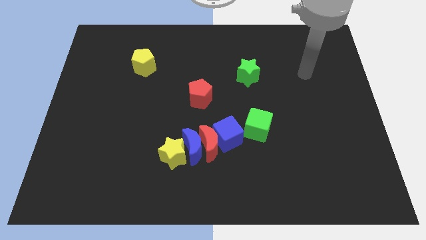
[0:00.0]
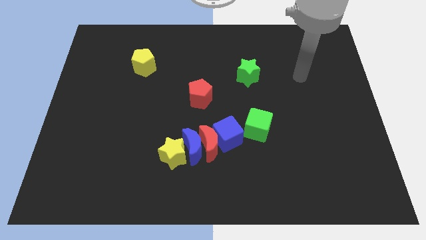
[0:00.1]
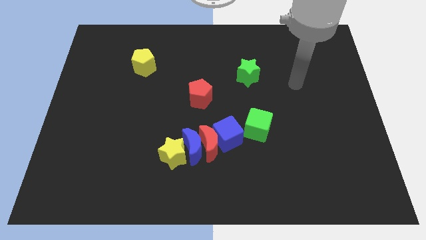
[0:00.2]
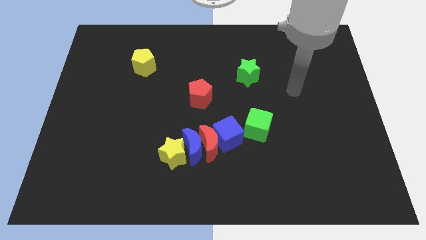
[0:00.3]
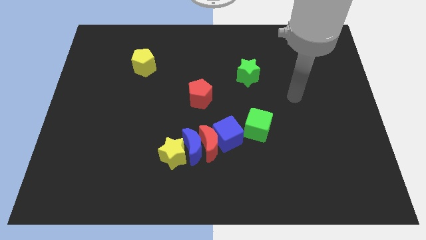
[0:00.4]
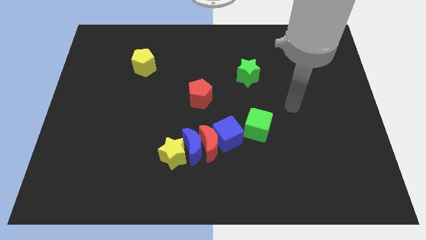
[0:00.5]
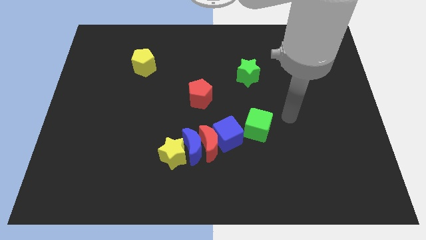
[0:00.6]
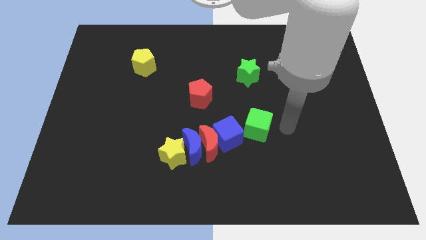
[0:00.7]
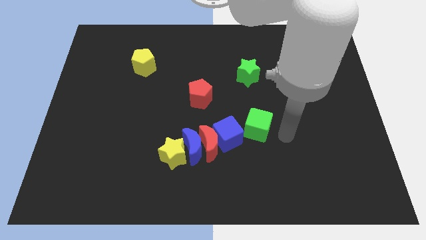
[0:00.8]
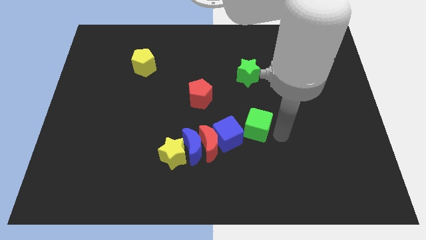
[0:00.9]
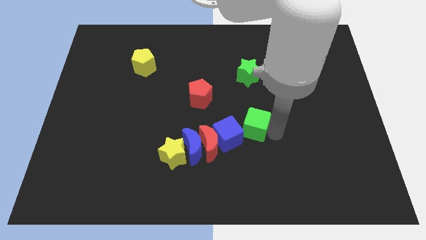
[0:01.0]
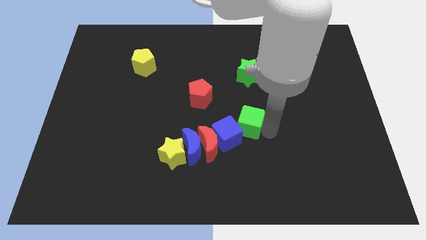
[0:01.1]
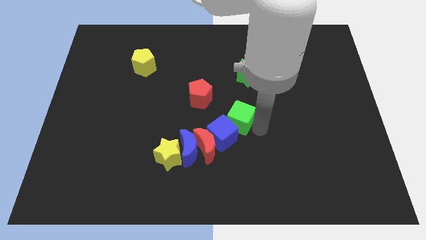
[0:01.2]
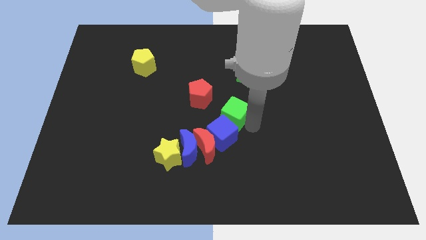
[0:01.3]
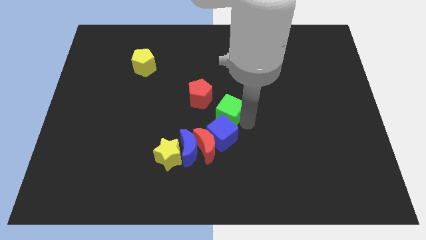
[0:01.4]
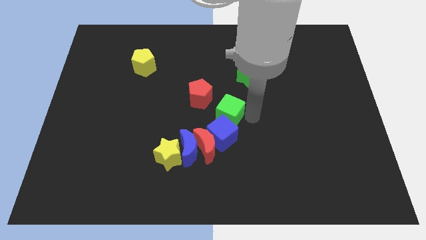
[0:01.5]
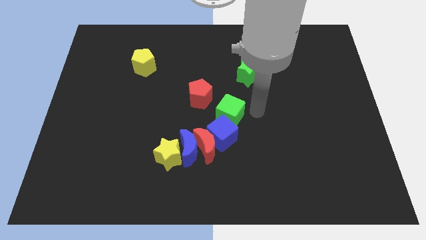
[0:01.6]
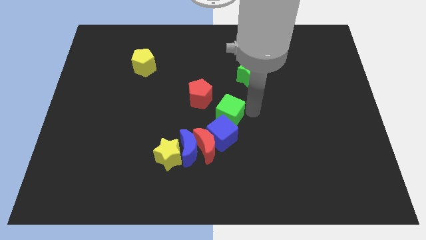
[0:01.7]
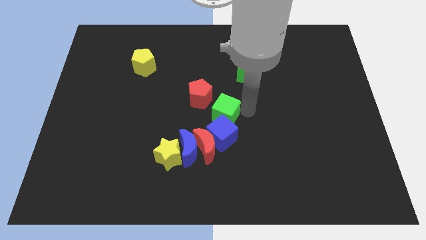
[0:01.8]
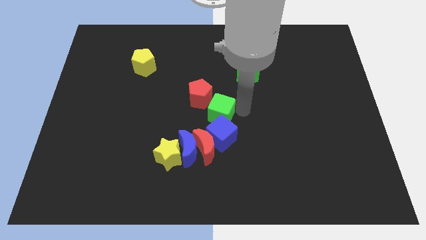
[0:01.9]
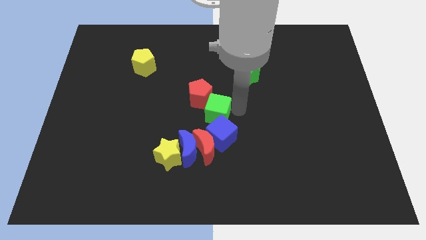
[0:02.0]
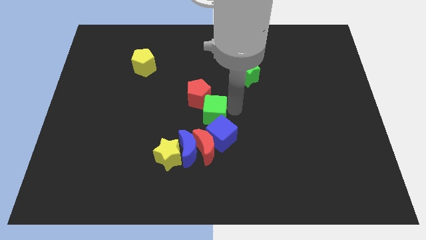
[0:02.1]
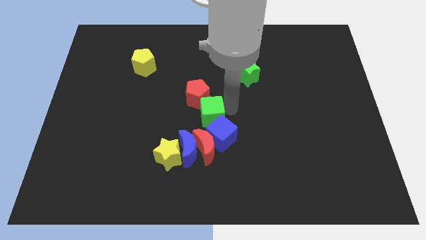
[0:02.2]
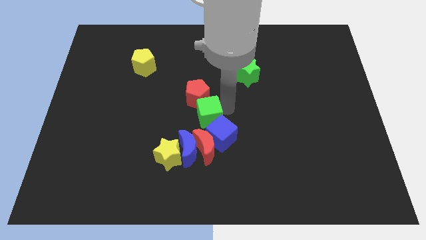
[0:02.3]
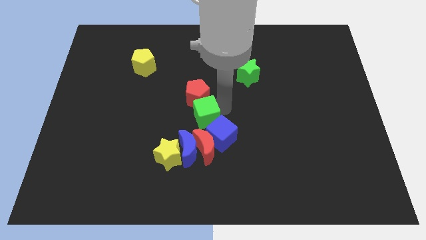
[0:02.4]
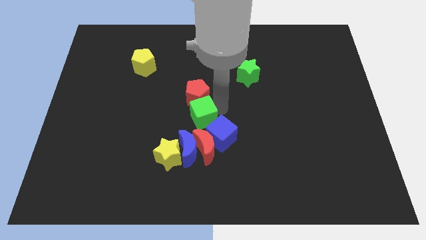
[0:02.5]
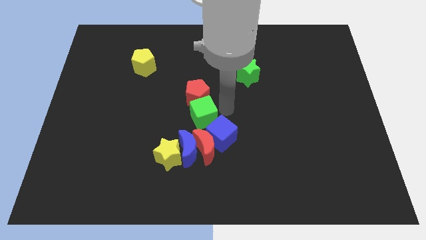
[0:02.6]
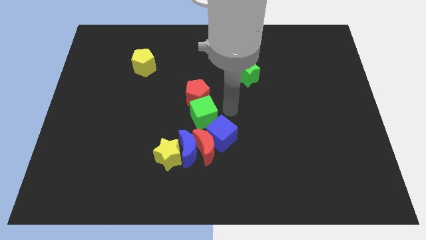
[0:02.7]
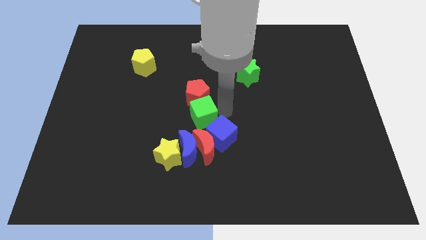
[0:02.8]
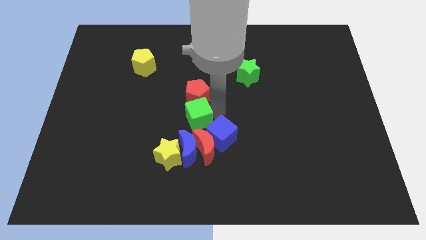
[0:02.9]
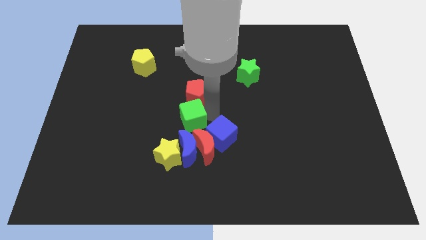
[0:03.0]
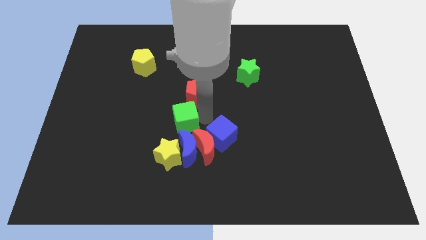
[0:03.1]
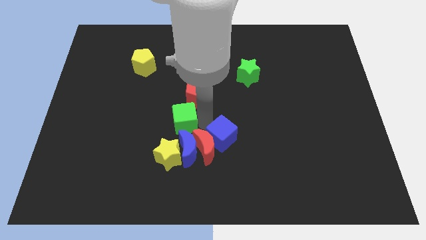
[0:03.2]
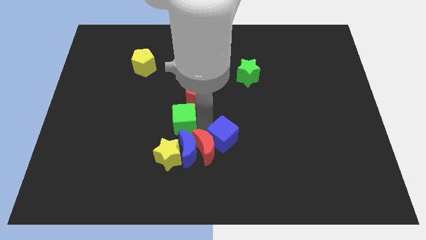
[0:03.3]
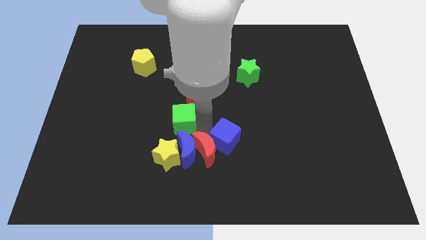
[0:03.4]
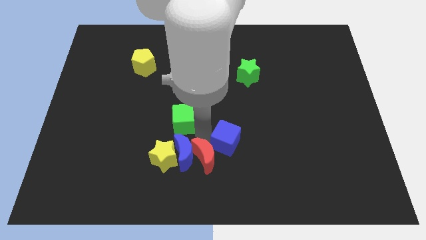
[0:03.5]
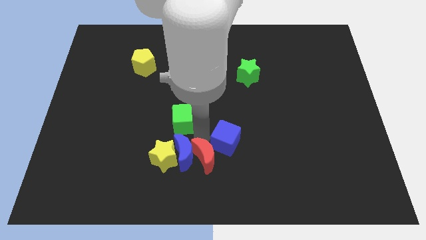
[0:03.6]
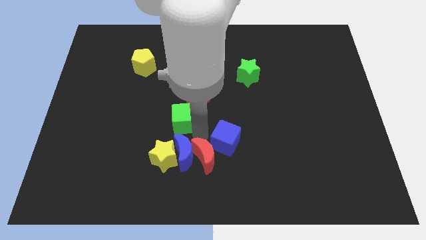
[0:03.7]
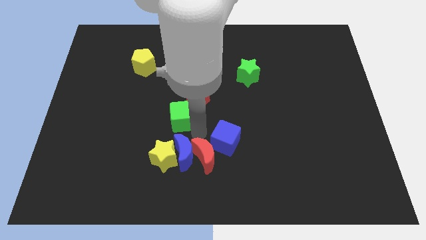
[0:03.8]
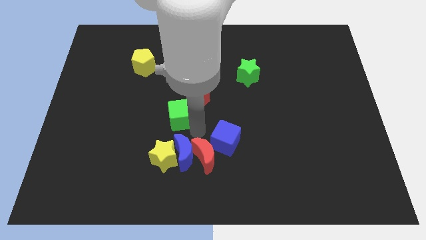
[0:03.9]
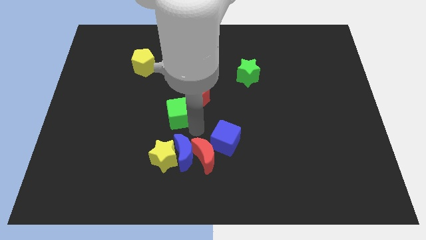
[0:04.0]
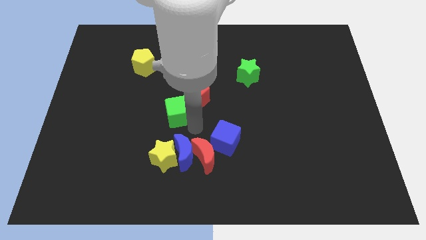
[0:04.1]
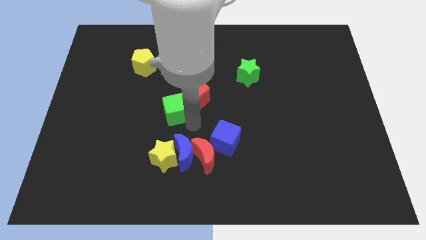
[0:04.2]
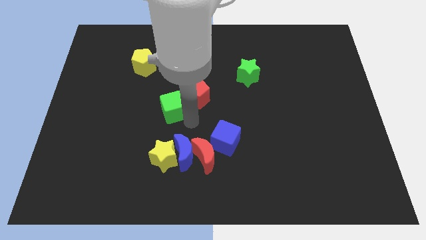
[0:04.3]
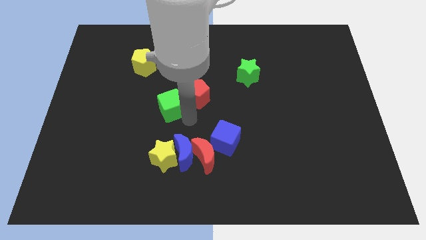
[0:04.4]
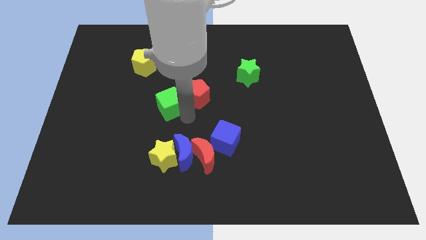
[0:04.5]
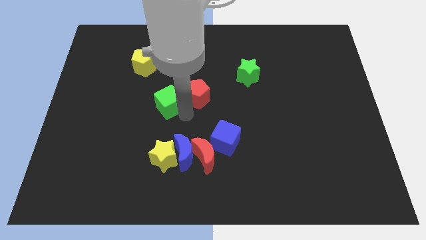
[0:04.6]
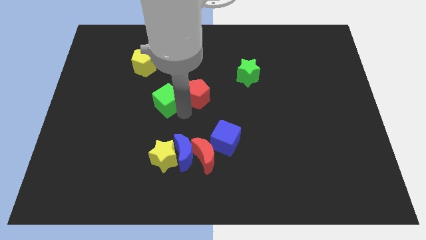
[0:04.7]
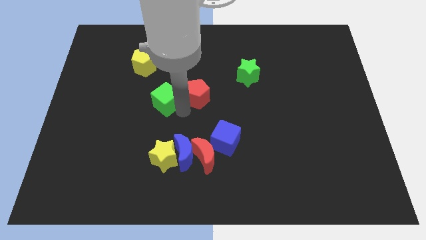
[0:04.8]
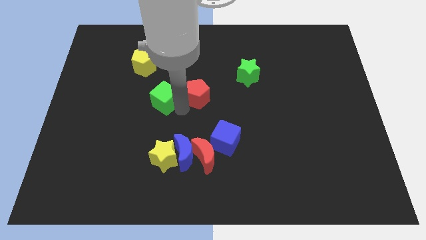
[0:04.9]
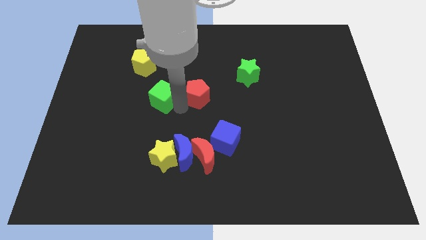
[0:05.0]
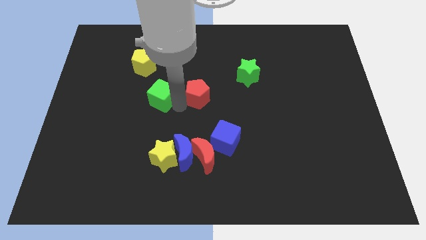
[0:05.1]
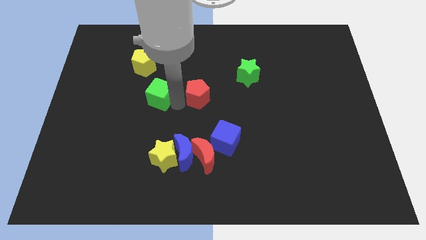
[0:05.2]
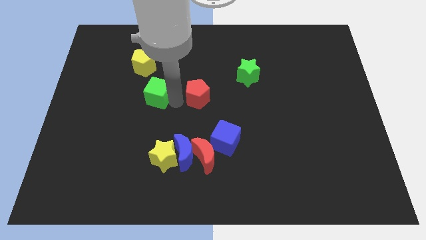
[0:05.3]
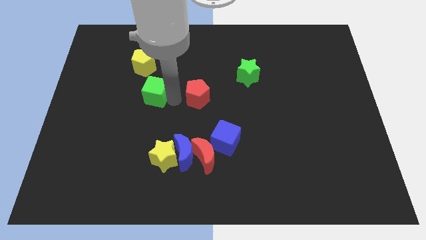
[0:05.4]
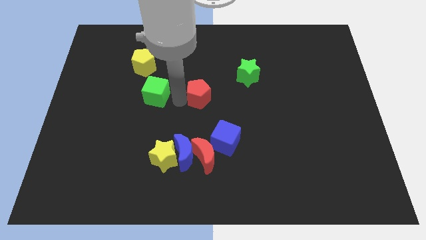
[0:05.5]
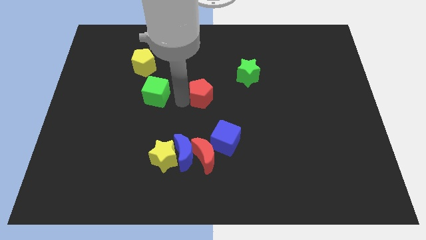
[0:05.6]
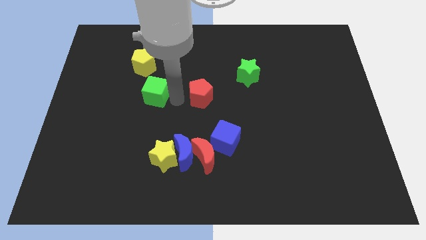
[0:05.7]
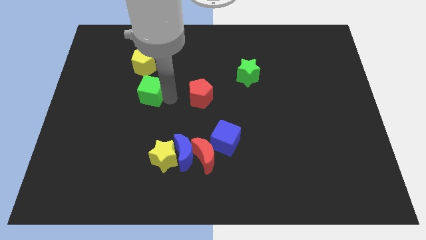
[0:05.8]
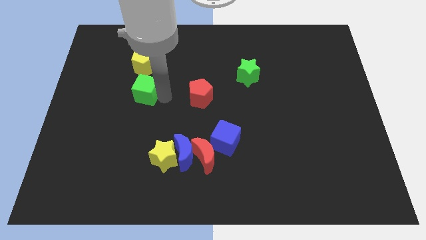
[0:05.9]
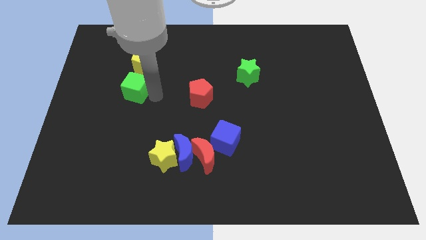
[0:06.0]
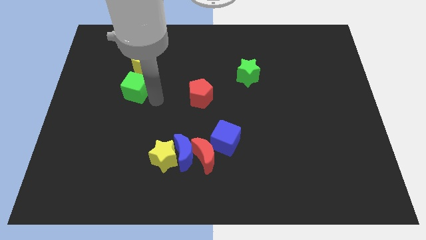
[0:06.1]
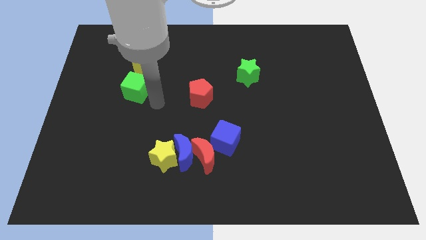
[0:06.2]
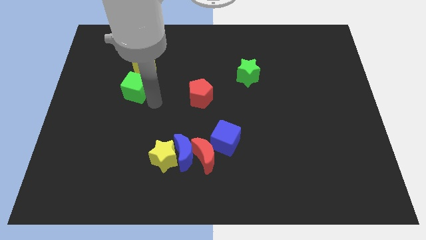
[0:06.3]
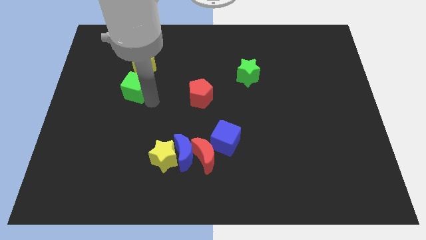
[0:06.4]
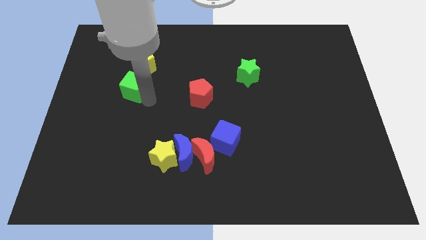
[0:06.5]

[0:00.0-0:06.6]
slide the green cube to the bottom left of the yellow pentagon

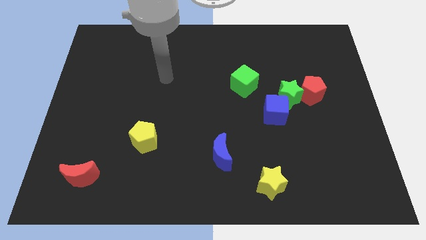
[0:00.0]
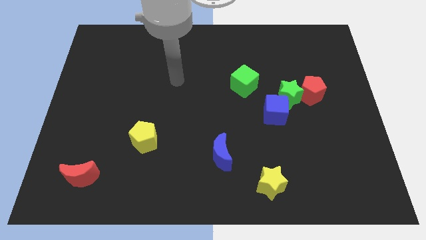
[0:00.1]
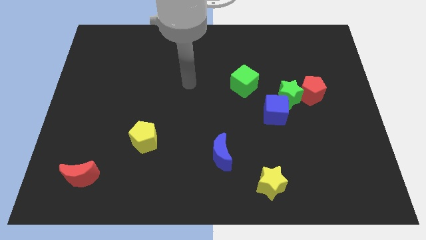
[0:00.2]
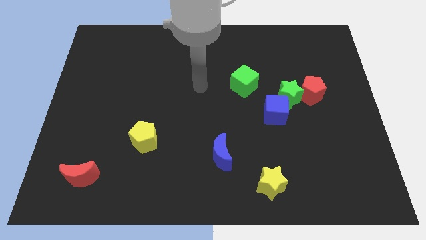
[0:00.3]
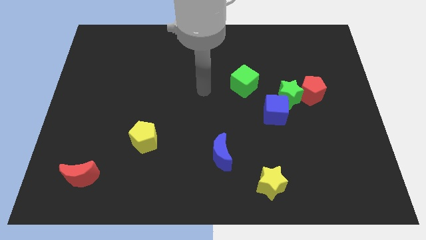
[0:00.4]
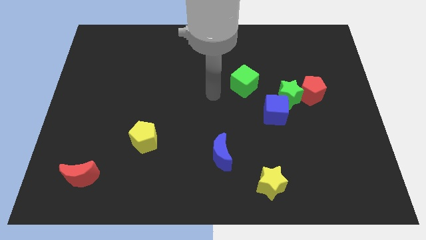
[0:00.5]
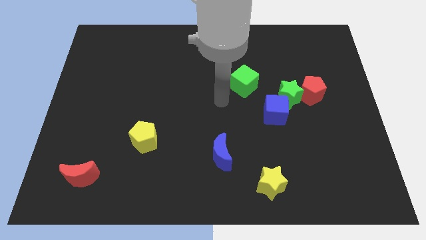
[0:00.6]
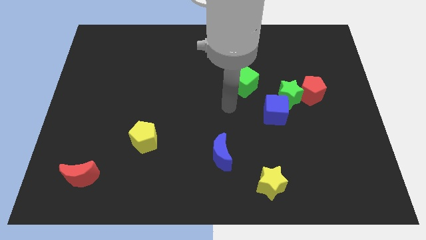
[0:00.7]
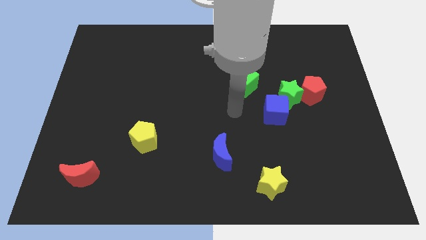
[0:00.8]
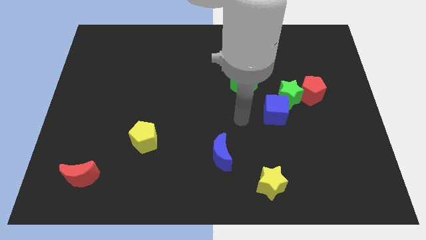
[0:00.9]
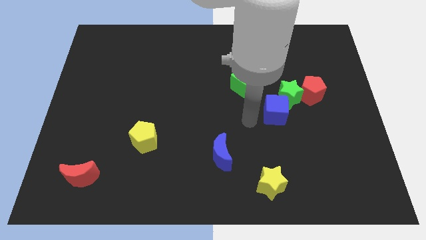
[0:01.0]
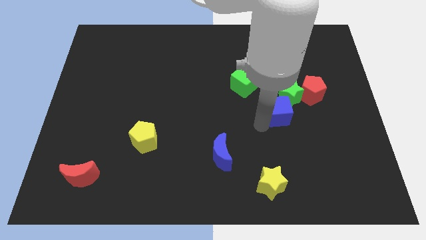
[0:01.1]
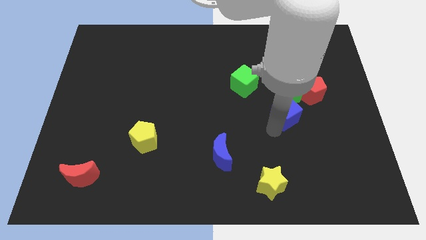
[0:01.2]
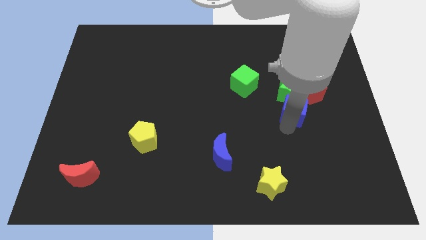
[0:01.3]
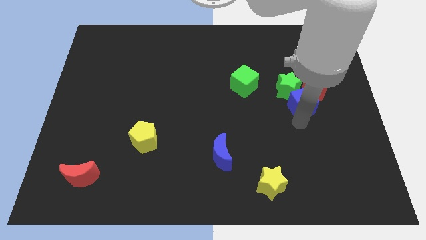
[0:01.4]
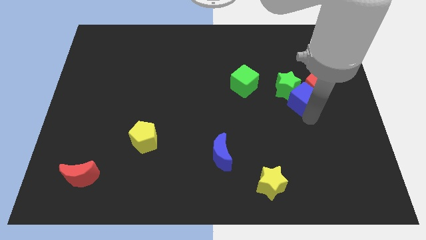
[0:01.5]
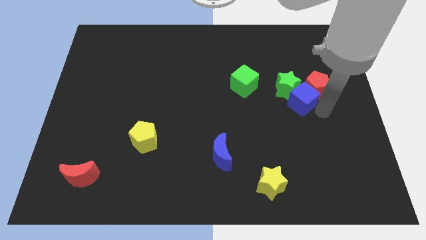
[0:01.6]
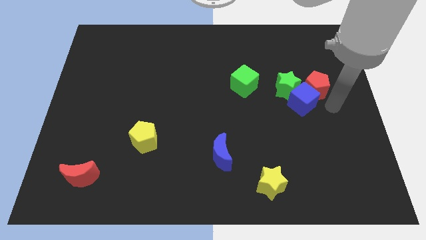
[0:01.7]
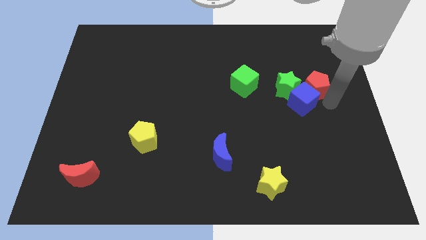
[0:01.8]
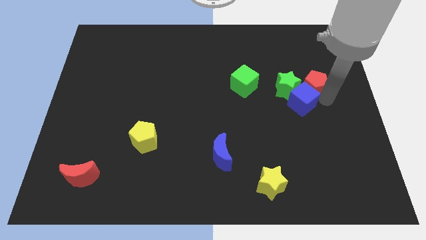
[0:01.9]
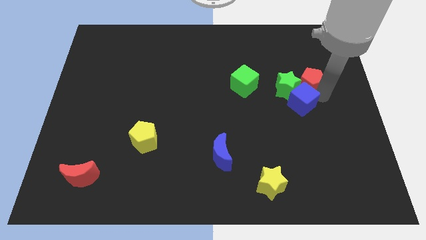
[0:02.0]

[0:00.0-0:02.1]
push the red pentagon right of the green cube
